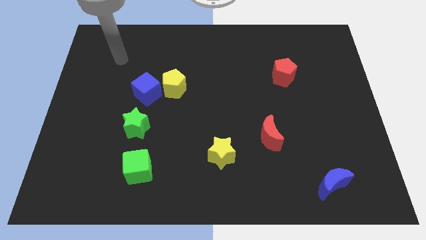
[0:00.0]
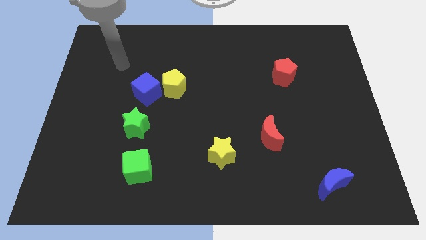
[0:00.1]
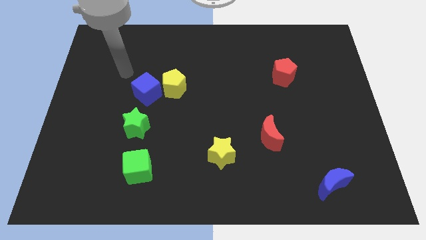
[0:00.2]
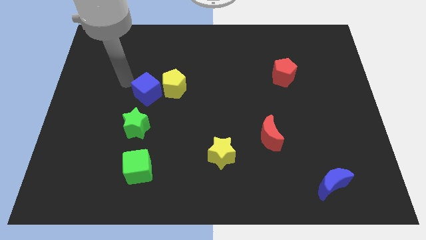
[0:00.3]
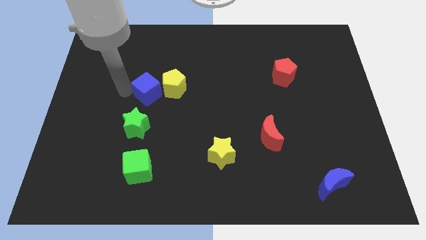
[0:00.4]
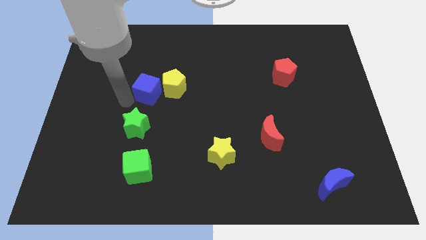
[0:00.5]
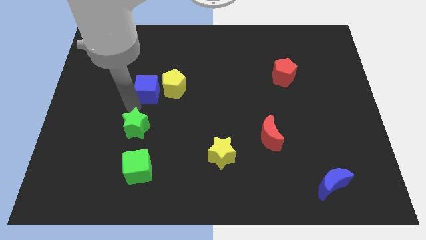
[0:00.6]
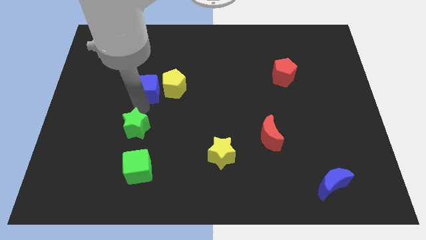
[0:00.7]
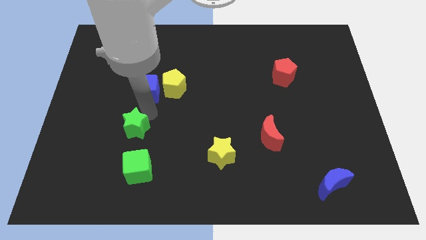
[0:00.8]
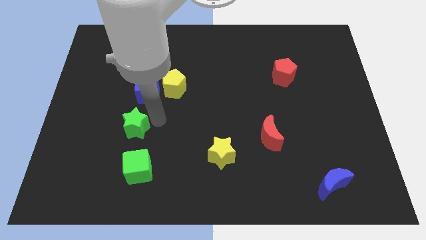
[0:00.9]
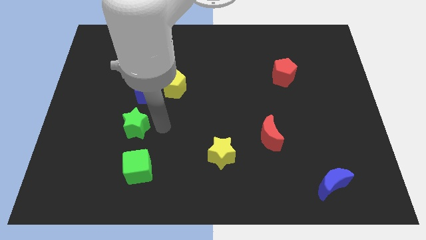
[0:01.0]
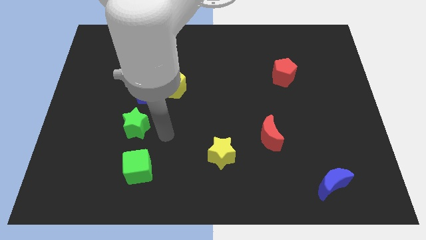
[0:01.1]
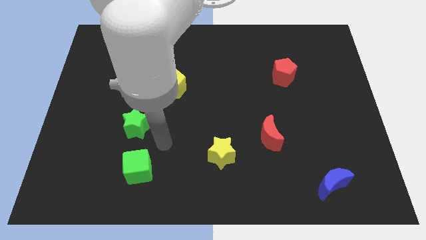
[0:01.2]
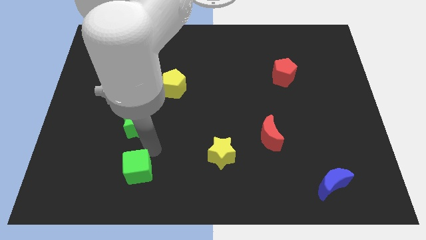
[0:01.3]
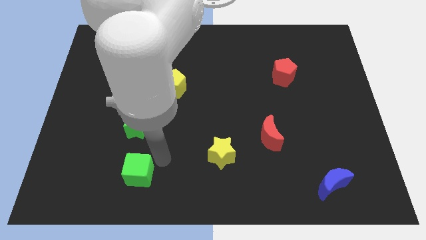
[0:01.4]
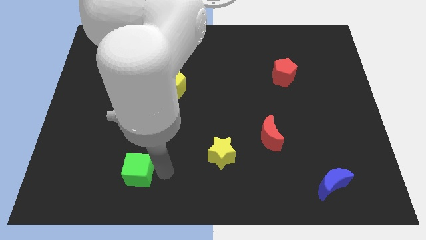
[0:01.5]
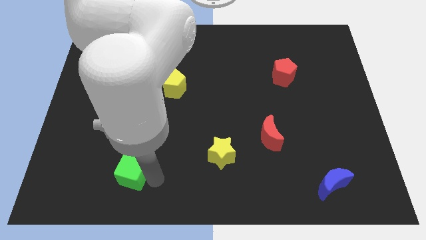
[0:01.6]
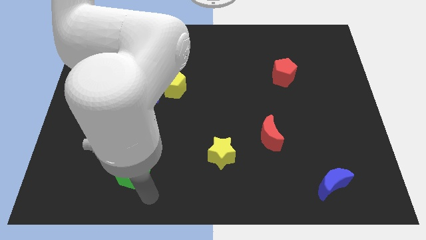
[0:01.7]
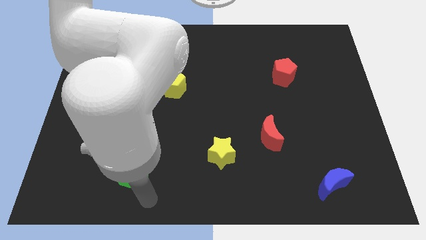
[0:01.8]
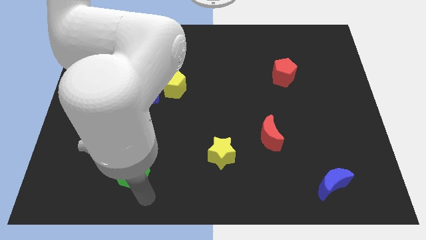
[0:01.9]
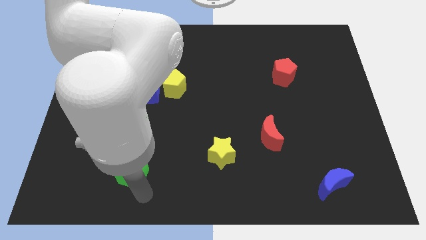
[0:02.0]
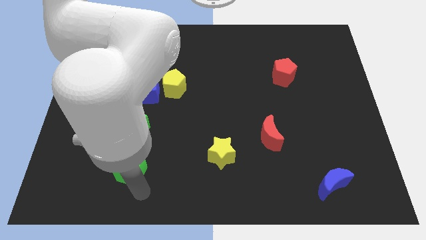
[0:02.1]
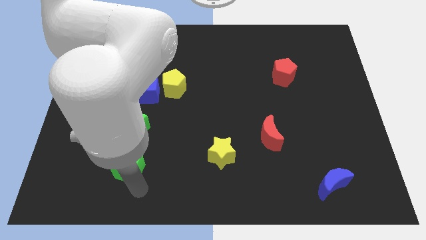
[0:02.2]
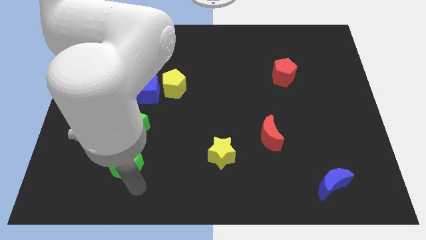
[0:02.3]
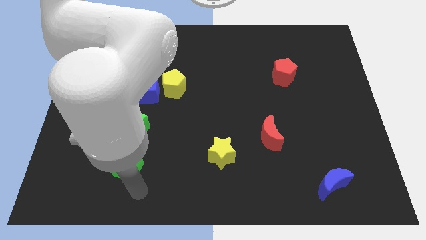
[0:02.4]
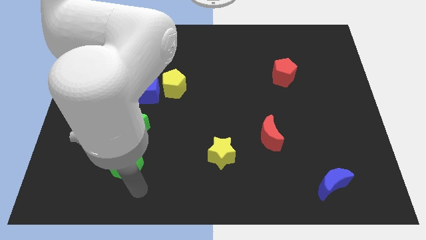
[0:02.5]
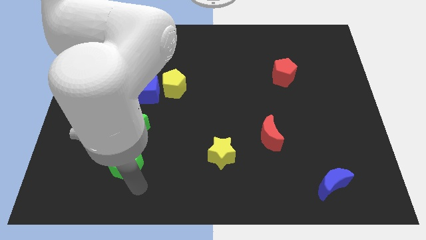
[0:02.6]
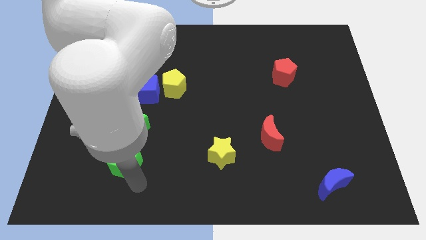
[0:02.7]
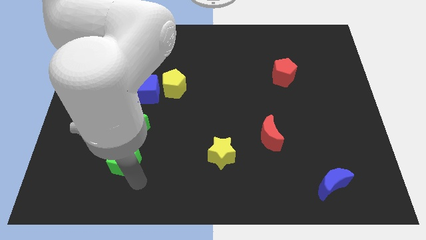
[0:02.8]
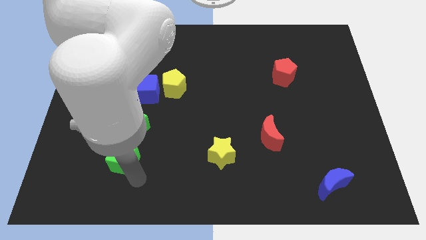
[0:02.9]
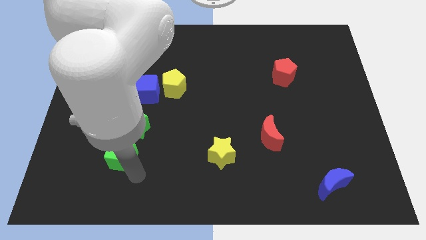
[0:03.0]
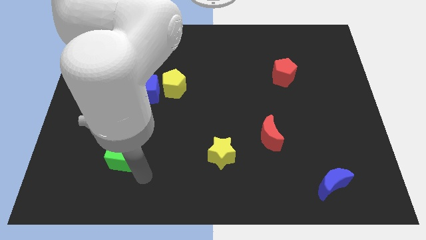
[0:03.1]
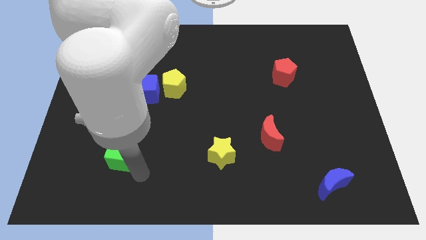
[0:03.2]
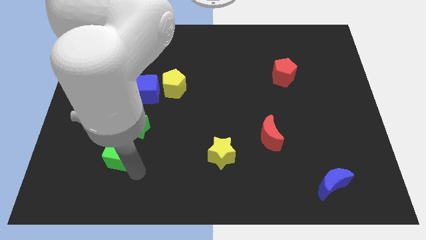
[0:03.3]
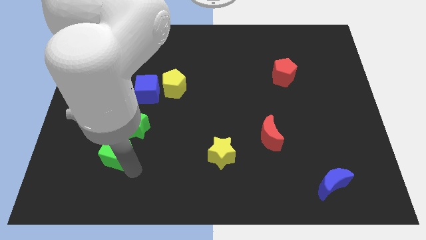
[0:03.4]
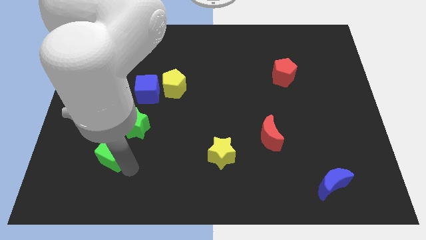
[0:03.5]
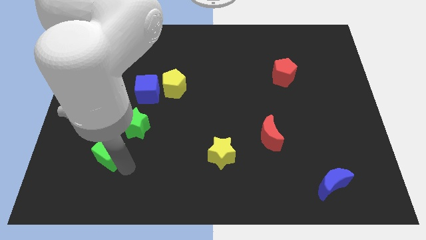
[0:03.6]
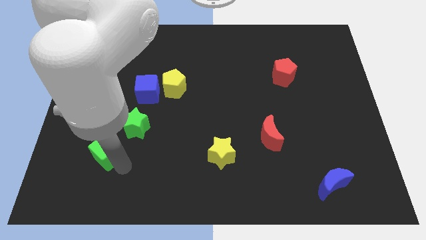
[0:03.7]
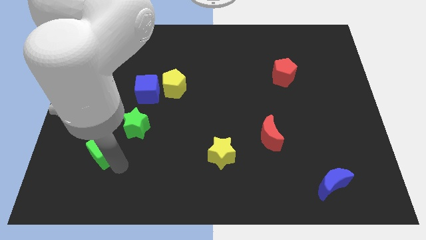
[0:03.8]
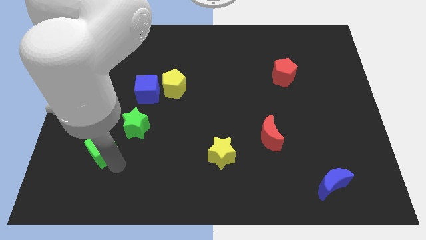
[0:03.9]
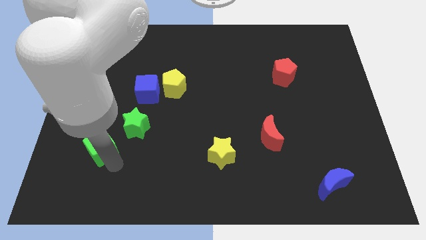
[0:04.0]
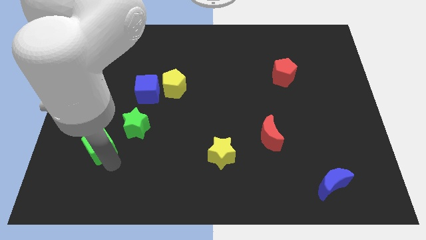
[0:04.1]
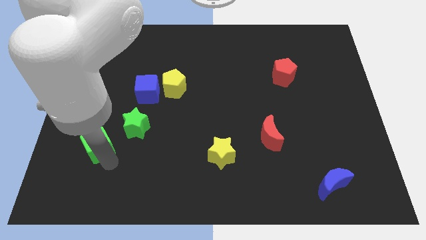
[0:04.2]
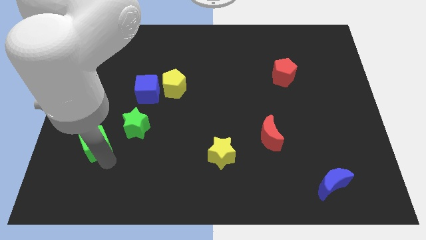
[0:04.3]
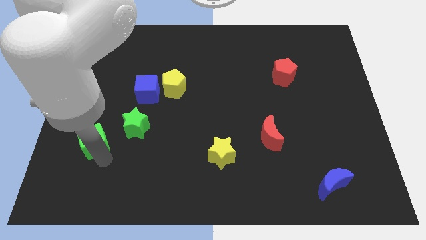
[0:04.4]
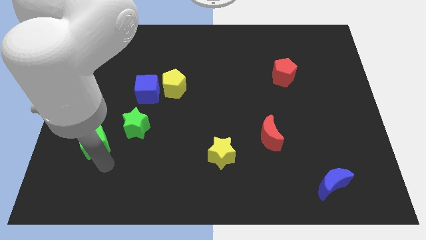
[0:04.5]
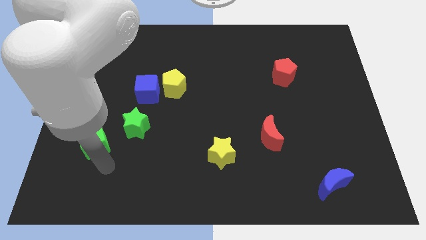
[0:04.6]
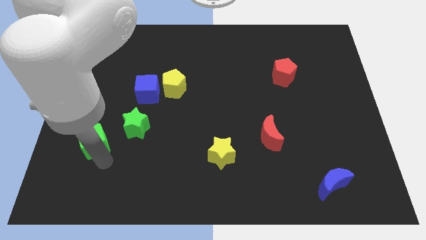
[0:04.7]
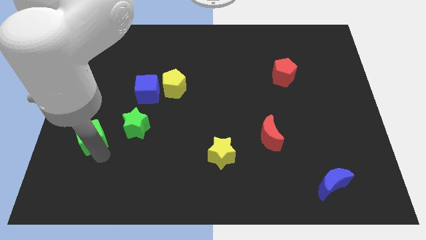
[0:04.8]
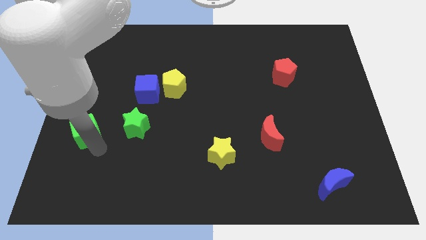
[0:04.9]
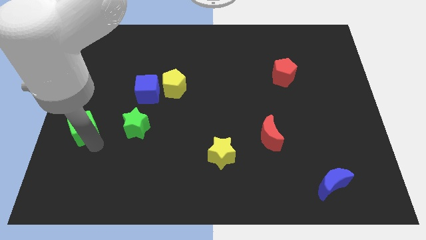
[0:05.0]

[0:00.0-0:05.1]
slide the green cube to the center left

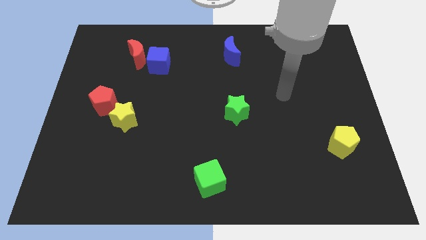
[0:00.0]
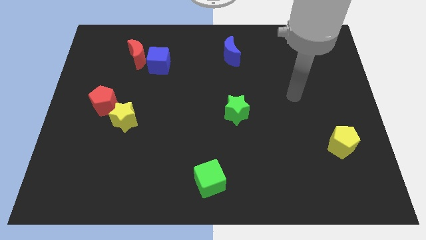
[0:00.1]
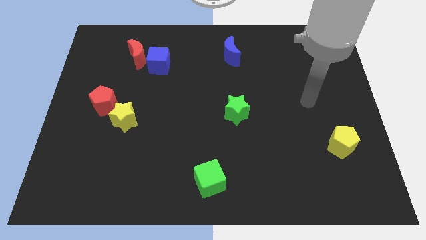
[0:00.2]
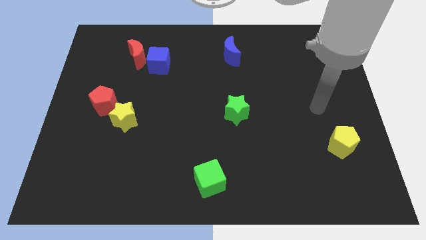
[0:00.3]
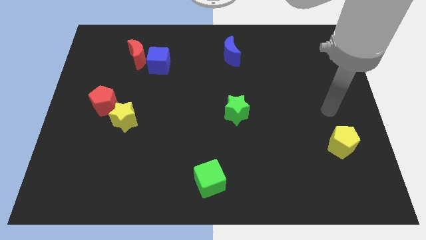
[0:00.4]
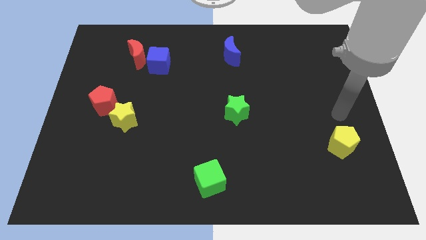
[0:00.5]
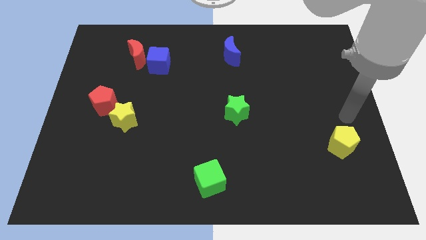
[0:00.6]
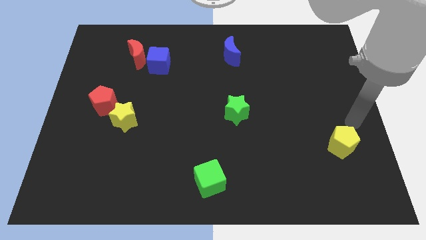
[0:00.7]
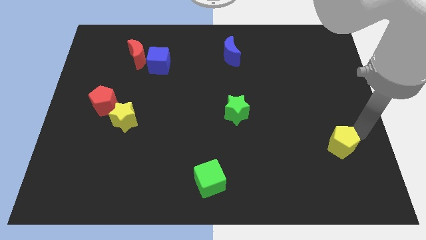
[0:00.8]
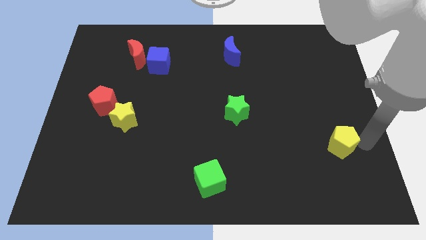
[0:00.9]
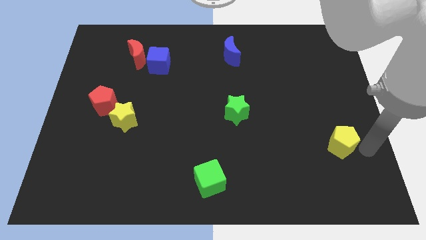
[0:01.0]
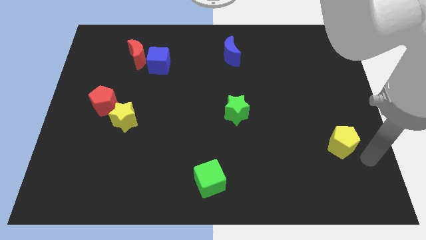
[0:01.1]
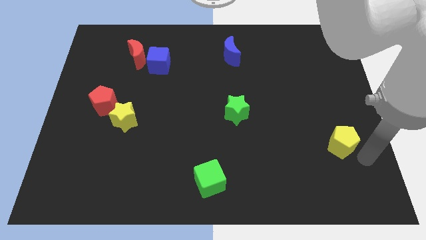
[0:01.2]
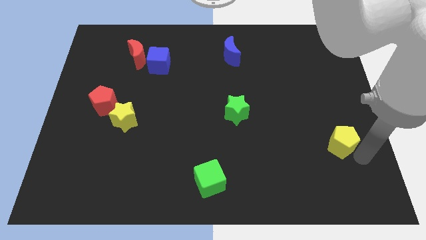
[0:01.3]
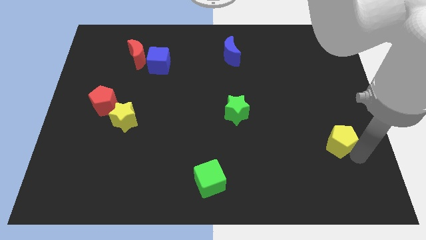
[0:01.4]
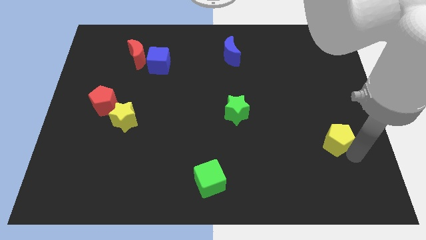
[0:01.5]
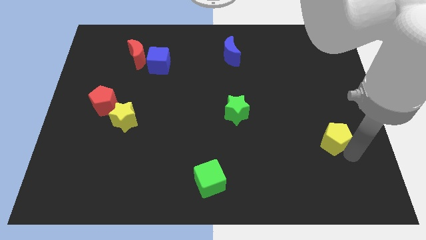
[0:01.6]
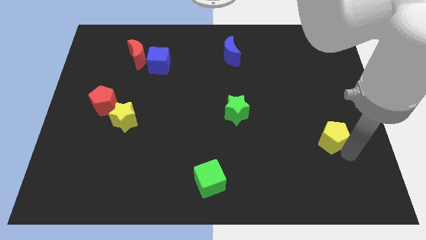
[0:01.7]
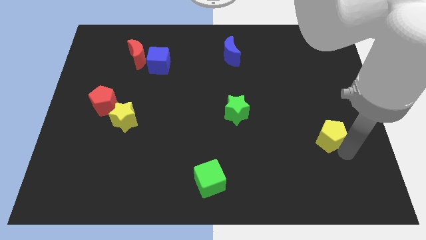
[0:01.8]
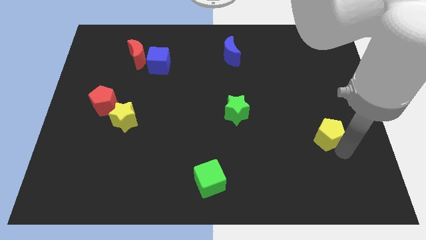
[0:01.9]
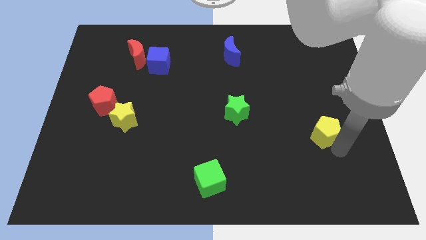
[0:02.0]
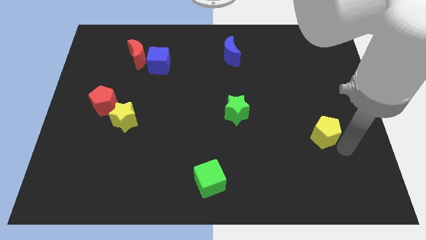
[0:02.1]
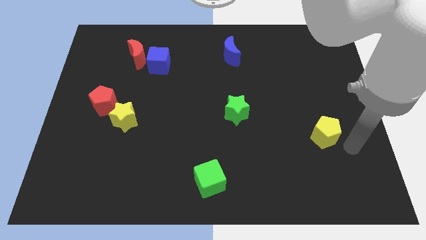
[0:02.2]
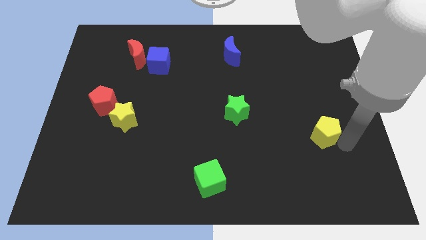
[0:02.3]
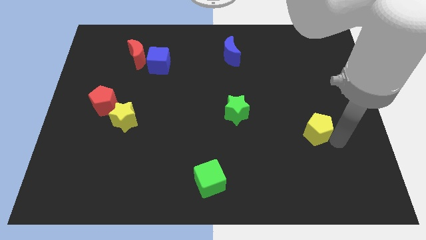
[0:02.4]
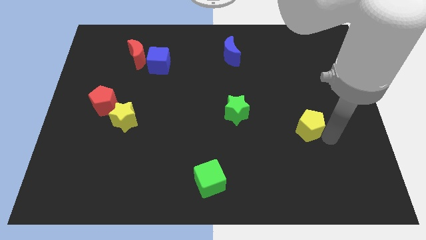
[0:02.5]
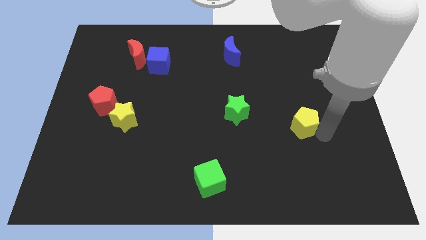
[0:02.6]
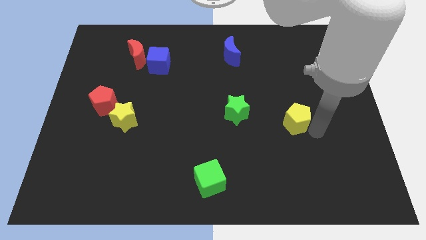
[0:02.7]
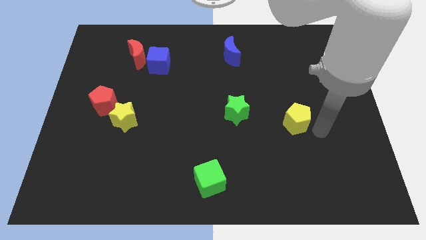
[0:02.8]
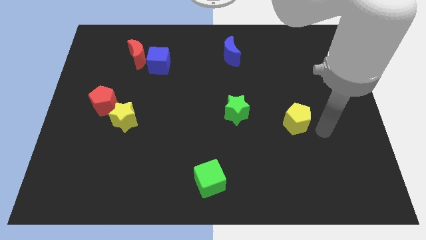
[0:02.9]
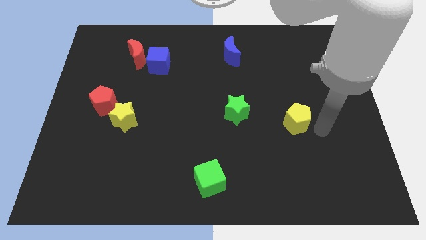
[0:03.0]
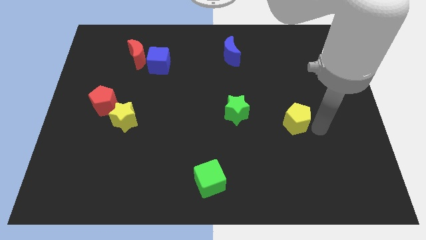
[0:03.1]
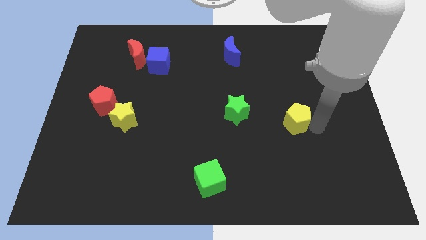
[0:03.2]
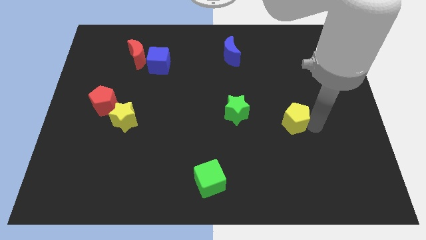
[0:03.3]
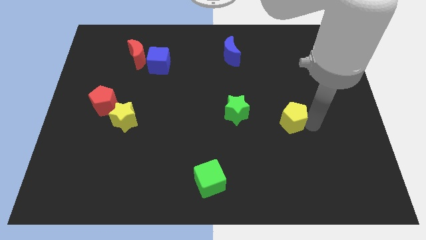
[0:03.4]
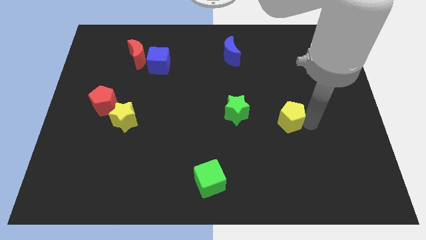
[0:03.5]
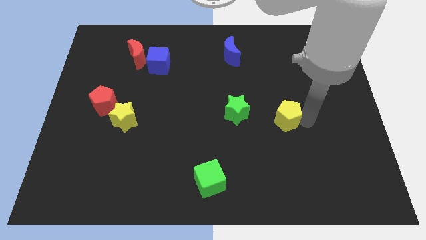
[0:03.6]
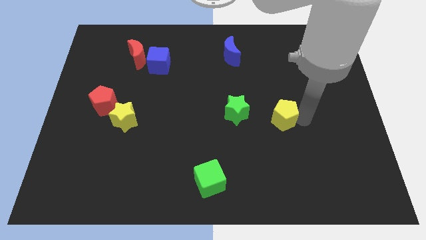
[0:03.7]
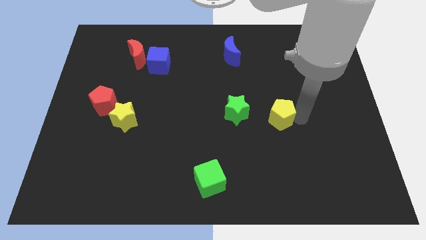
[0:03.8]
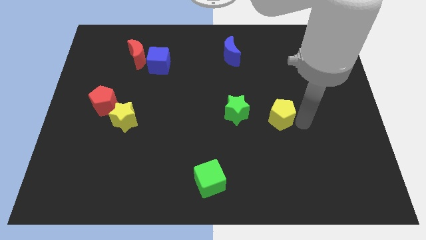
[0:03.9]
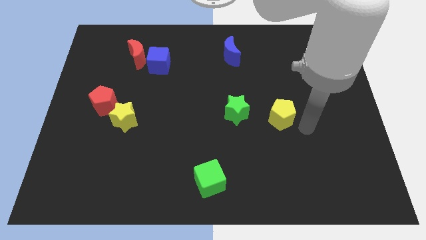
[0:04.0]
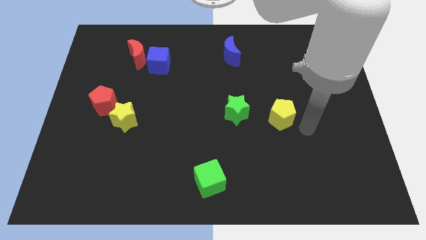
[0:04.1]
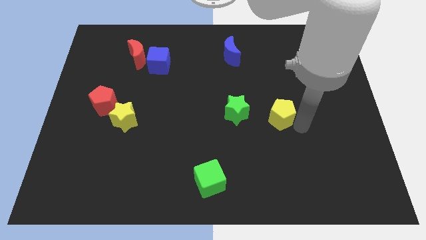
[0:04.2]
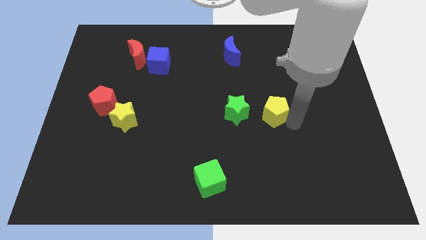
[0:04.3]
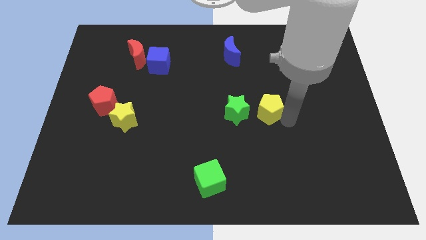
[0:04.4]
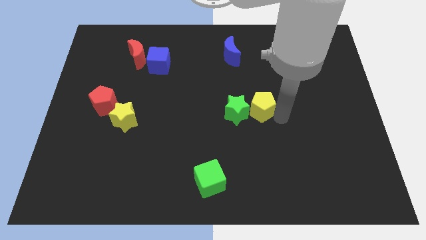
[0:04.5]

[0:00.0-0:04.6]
slide the yellow pentagon to the center
